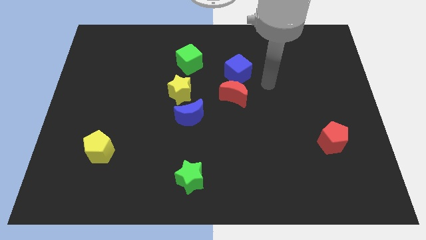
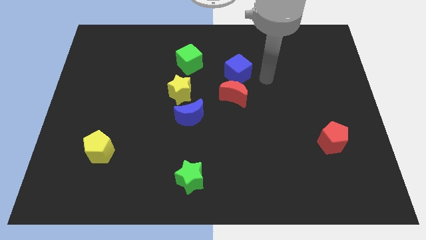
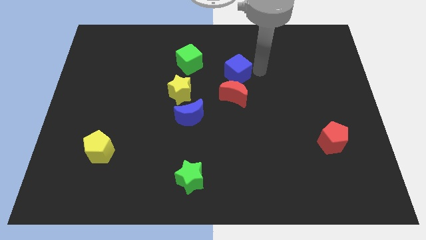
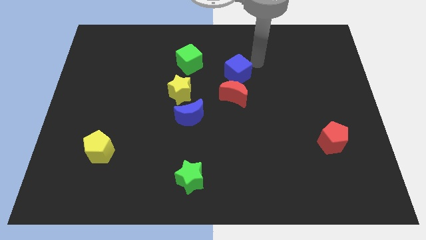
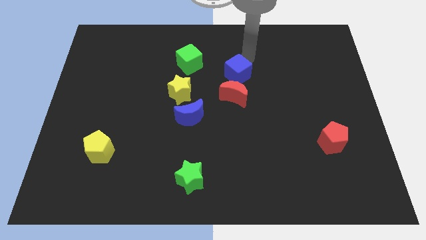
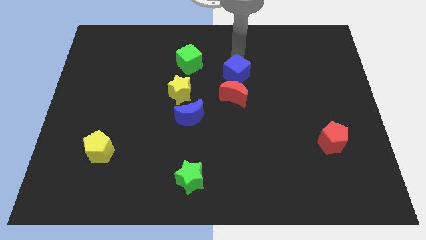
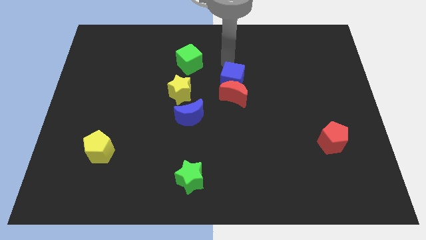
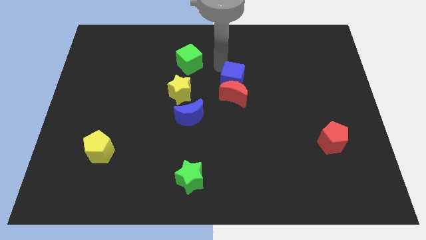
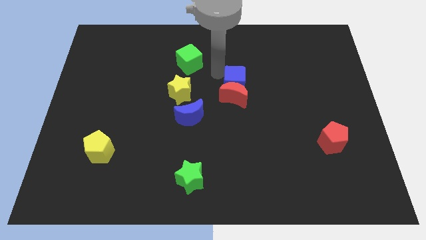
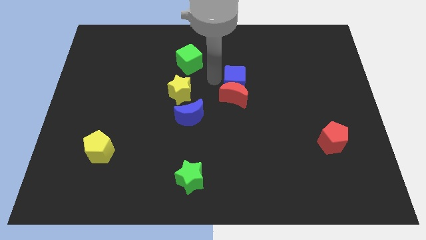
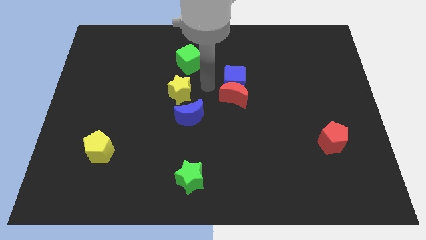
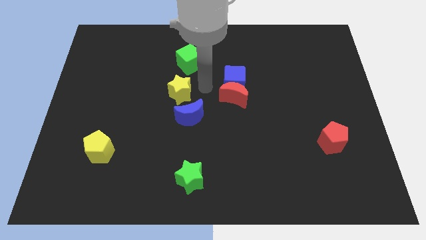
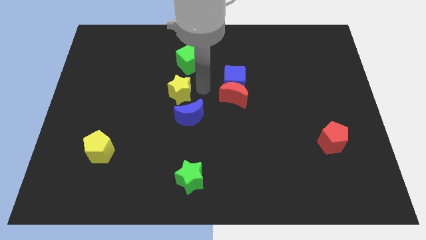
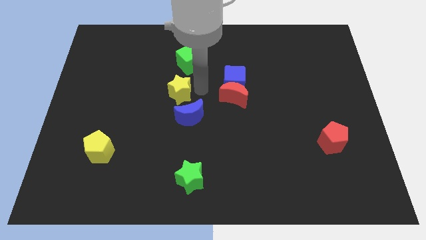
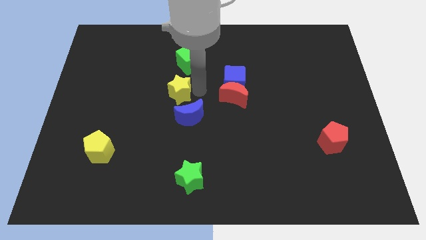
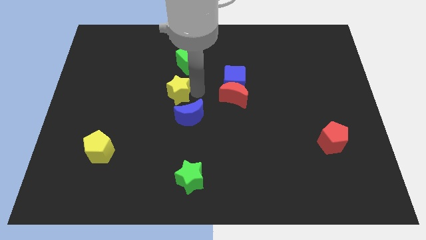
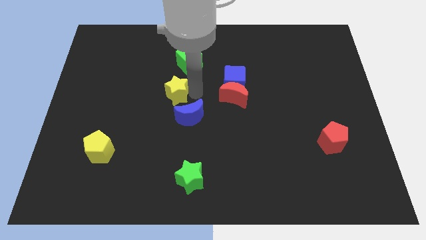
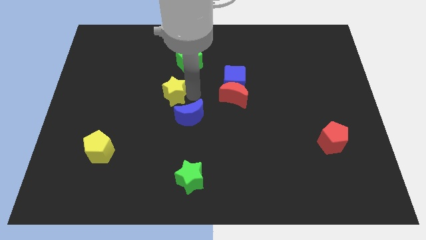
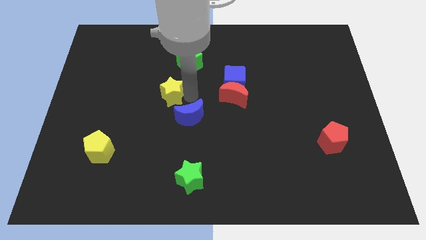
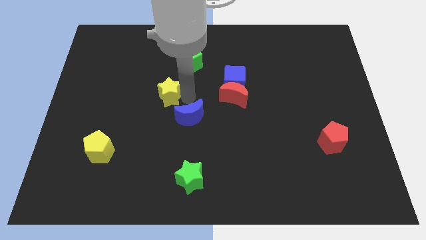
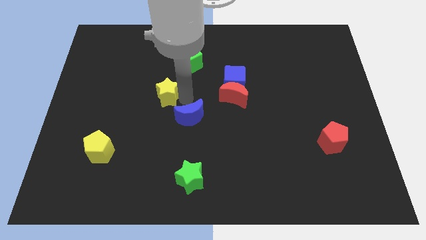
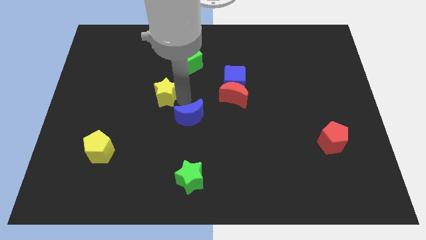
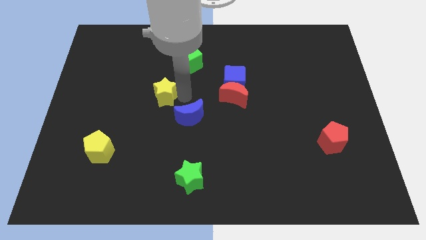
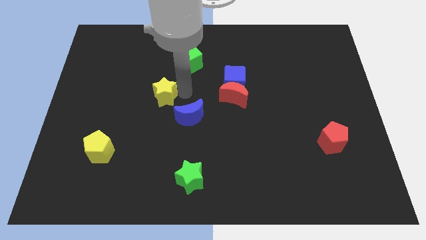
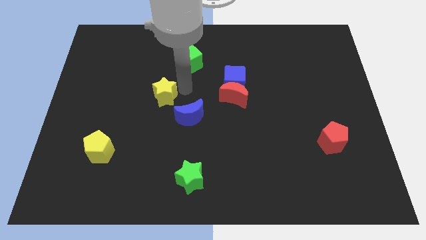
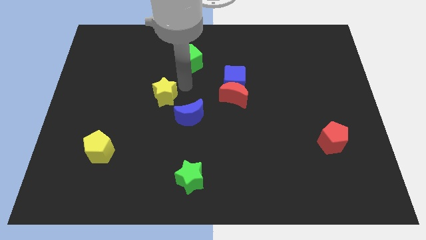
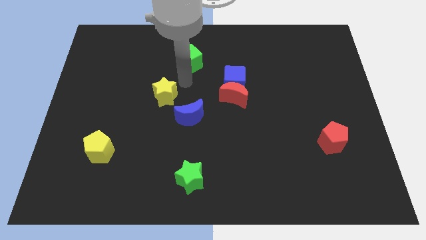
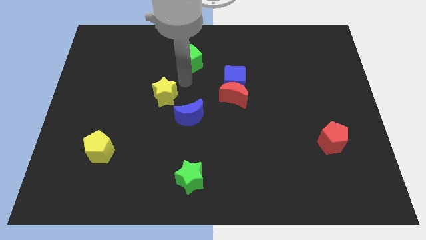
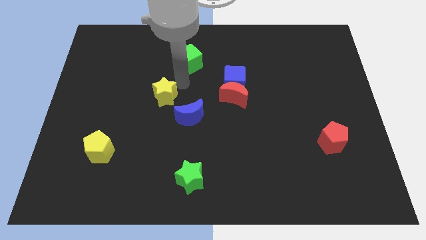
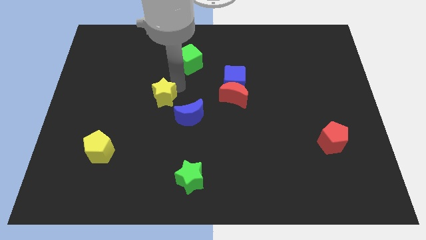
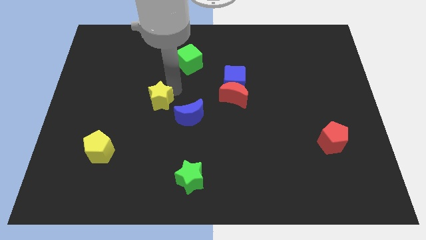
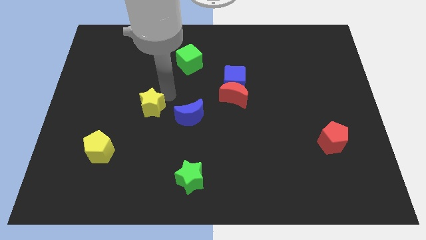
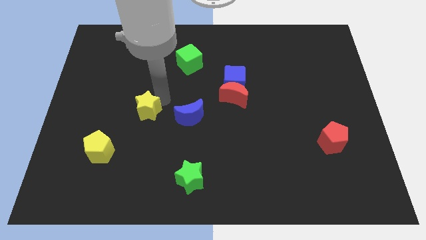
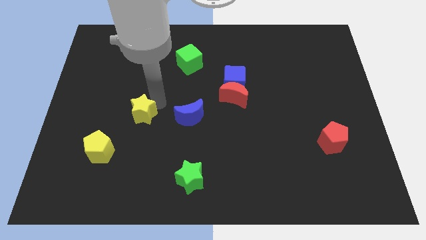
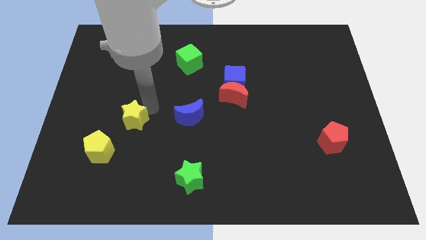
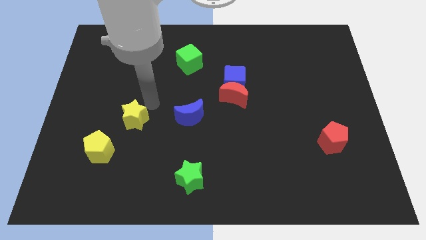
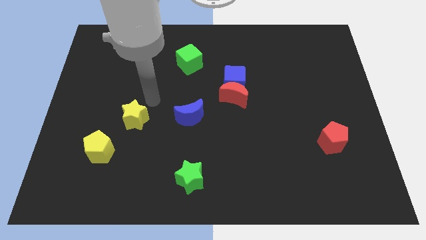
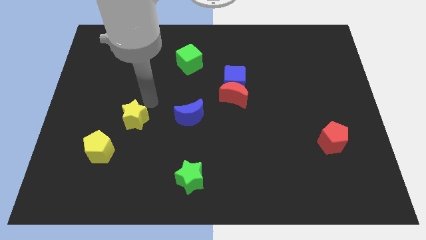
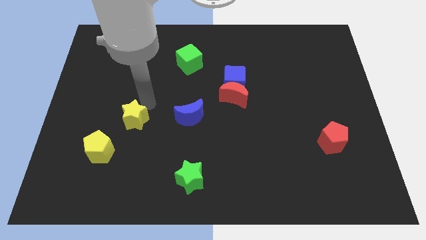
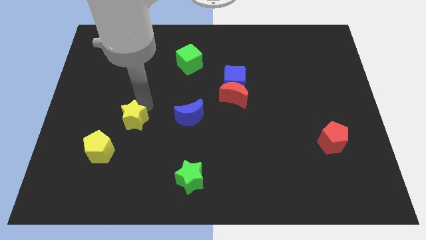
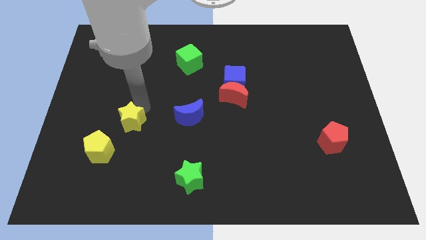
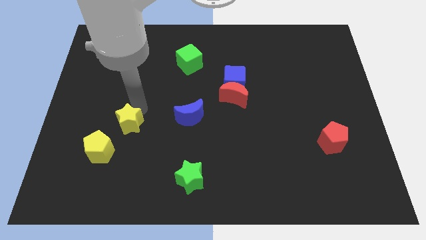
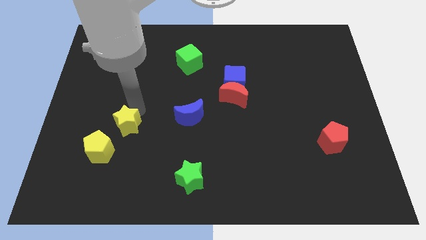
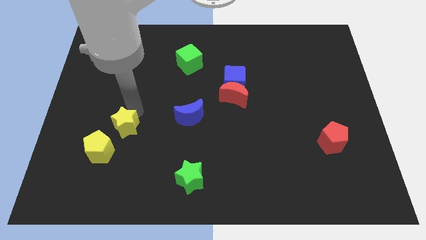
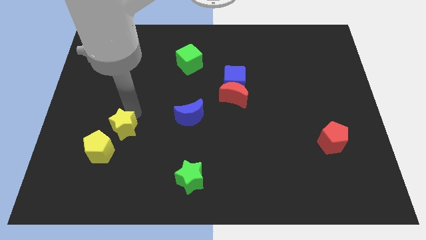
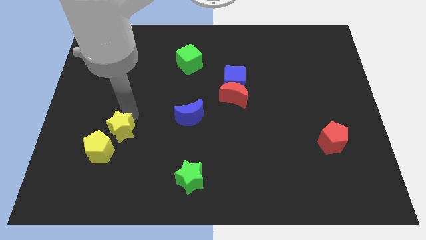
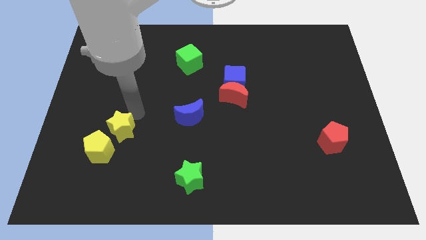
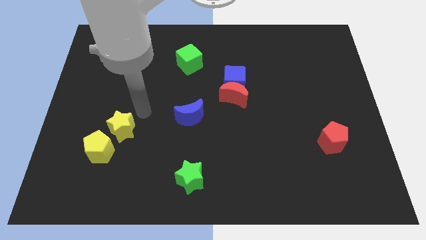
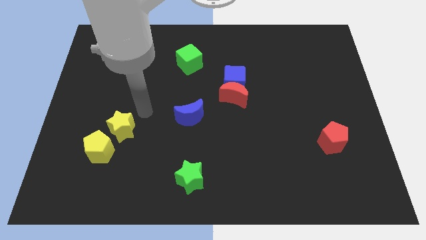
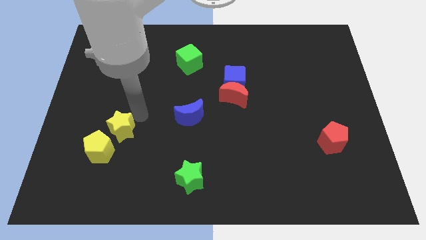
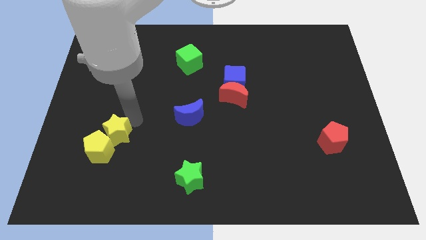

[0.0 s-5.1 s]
put the yellow star next to the yellow pentagon

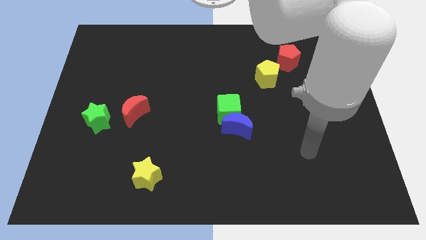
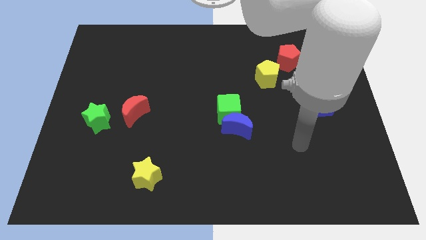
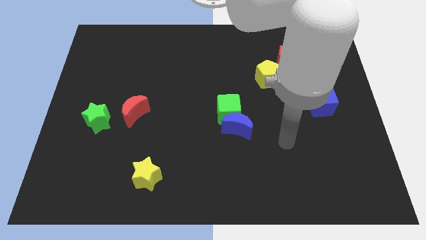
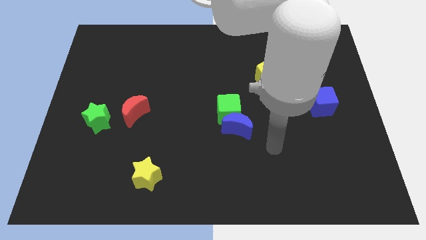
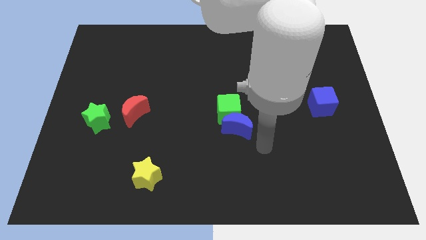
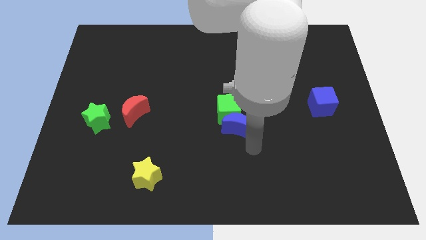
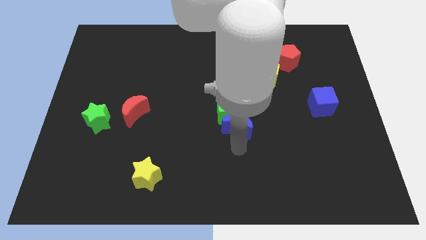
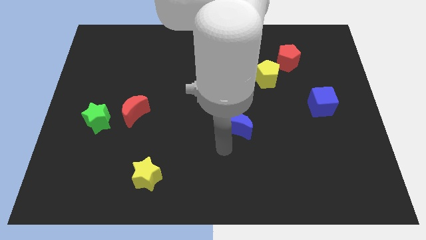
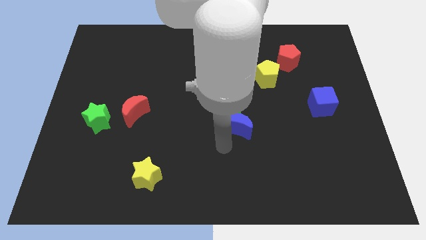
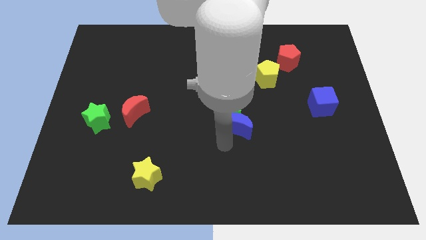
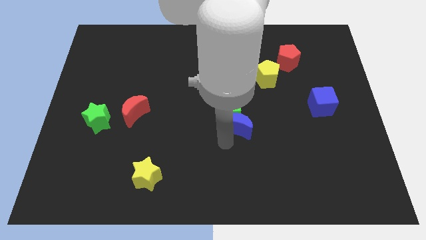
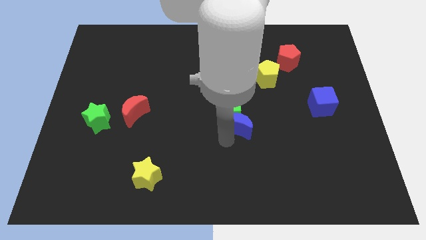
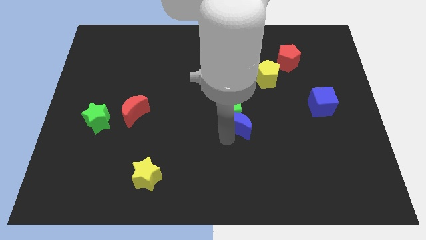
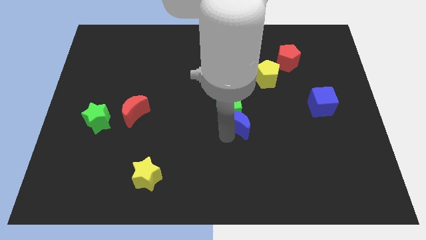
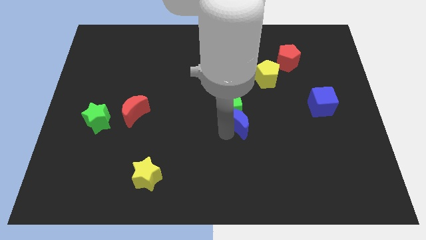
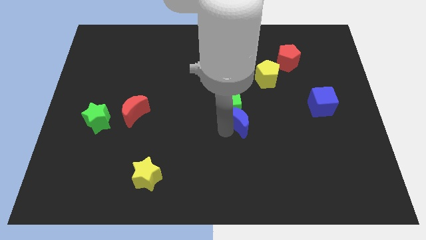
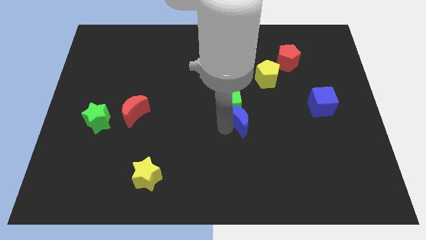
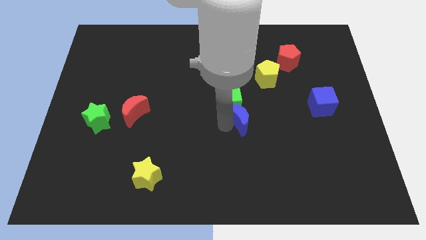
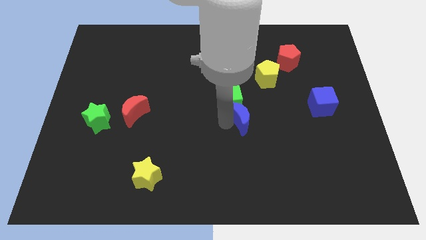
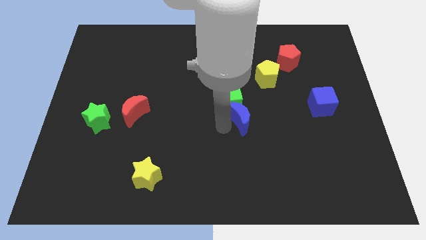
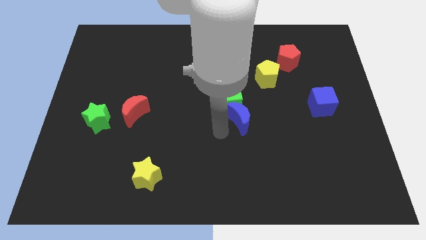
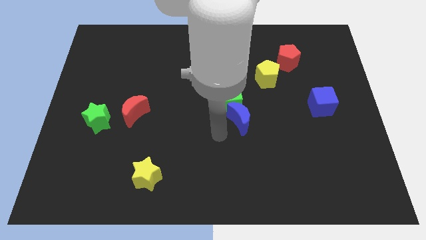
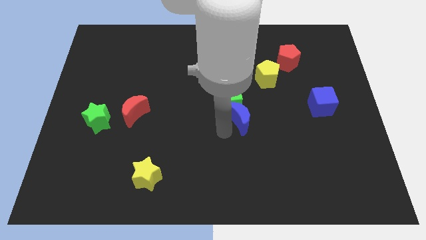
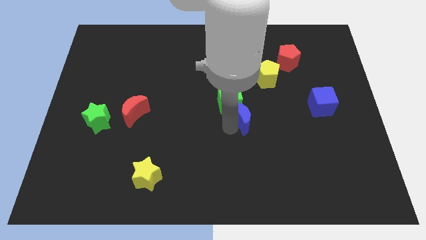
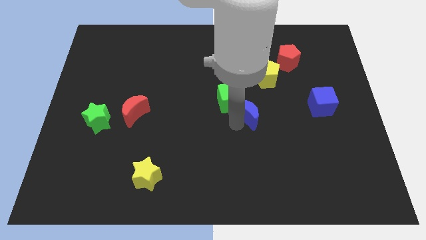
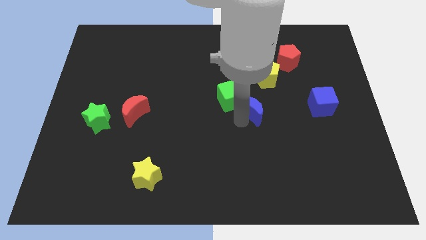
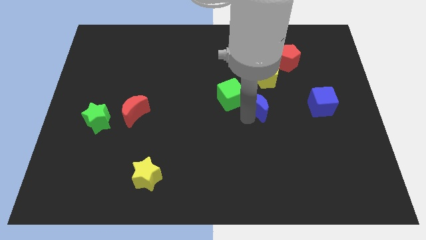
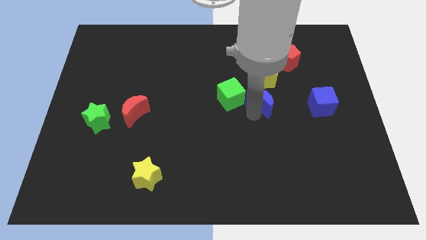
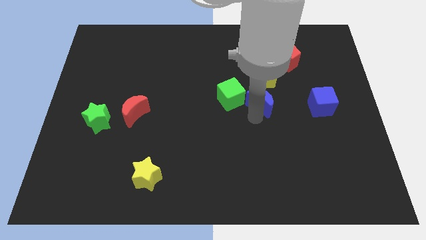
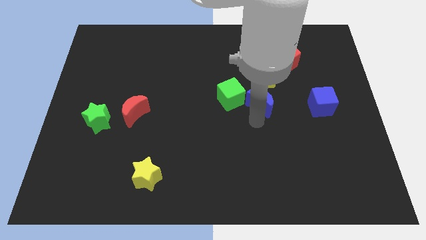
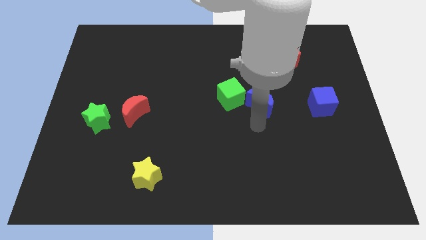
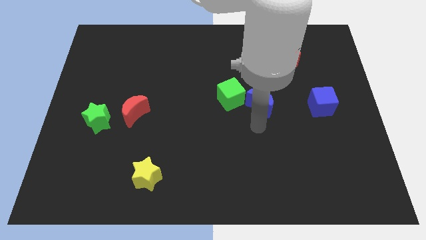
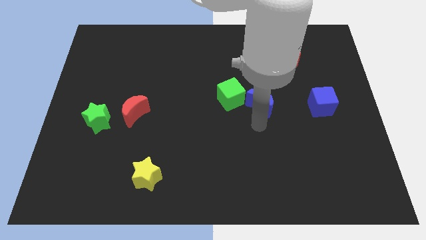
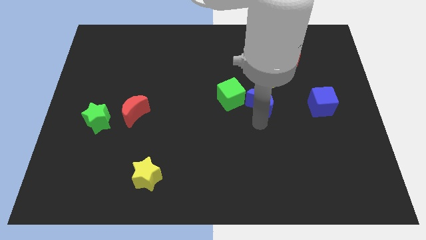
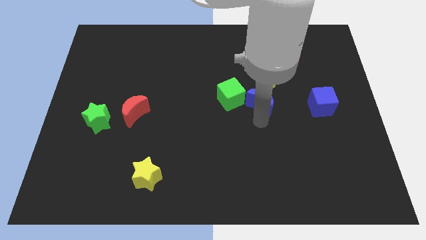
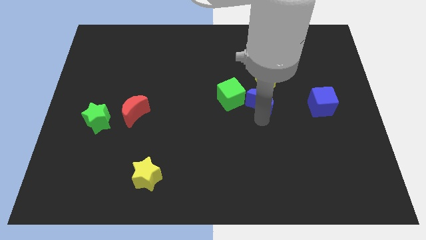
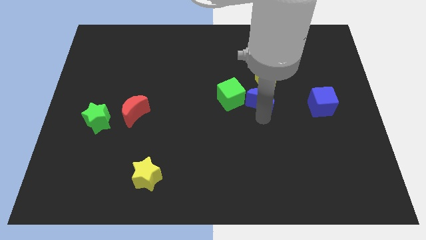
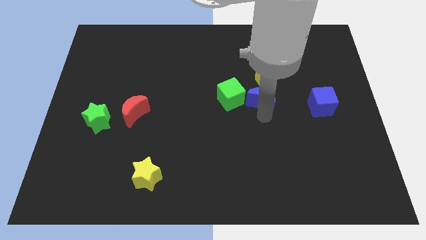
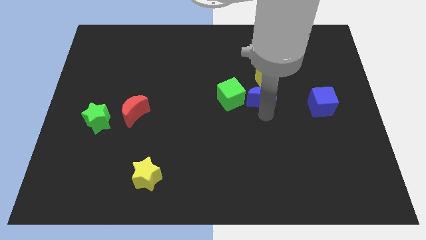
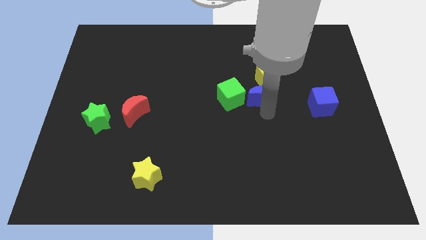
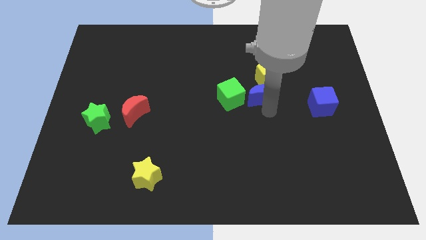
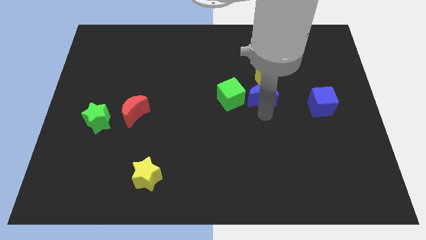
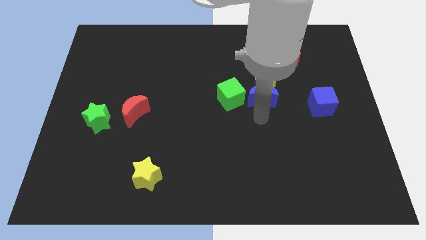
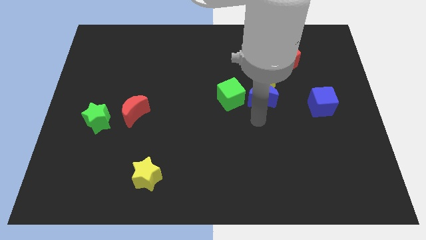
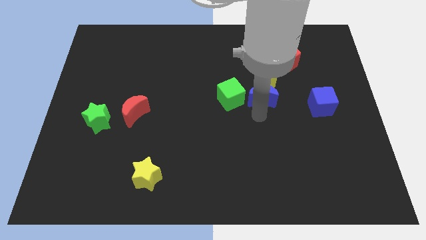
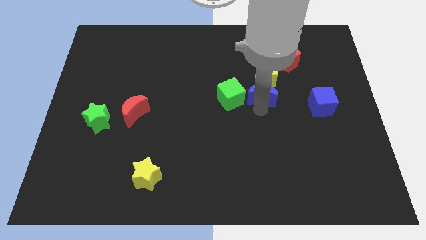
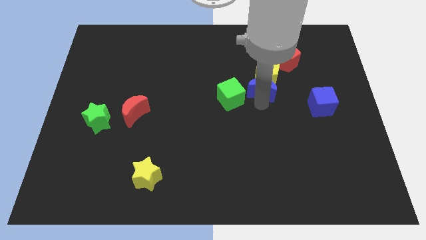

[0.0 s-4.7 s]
slide the blue moon close to the yellow pentagon
